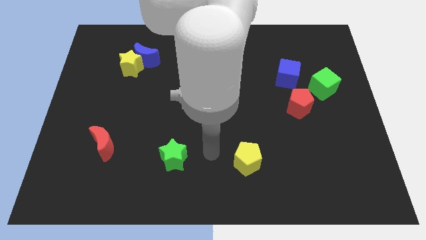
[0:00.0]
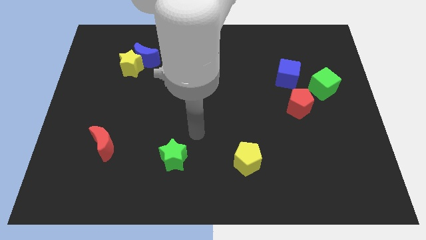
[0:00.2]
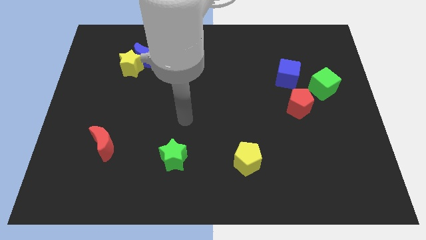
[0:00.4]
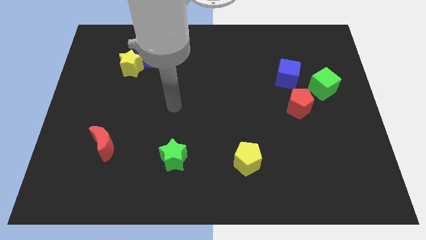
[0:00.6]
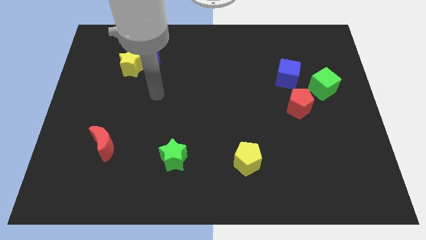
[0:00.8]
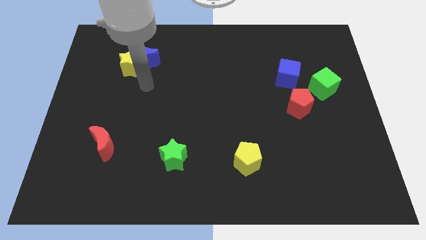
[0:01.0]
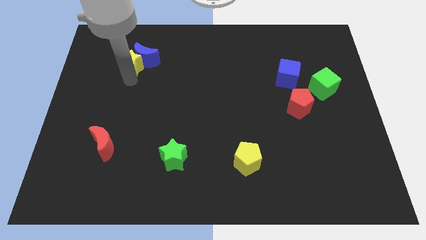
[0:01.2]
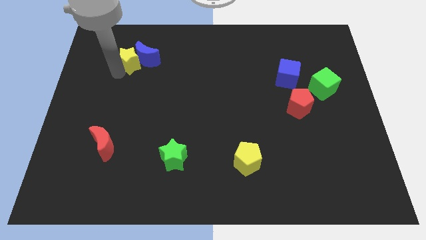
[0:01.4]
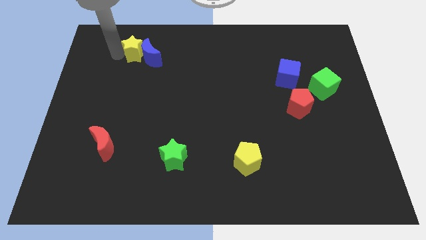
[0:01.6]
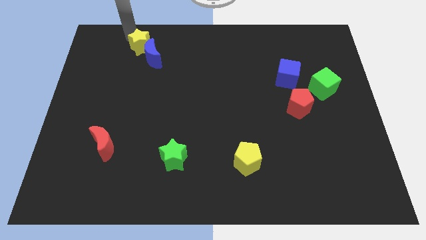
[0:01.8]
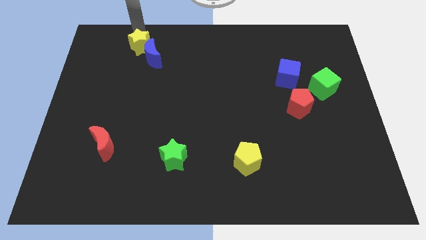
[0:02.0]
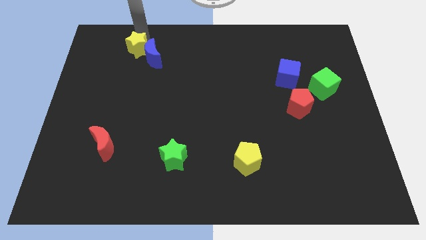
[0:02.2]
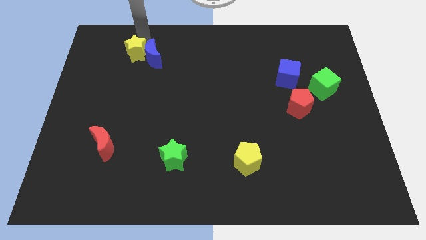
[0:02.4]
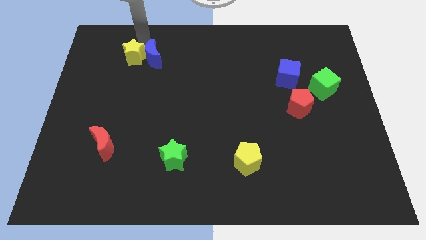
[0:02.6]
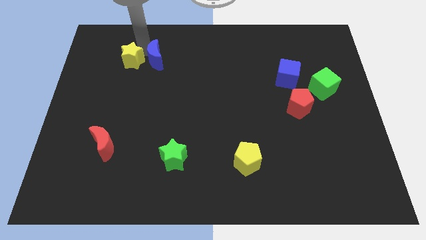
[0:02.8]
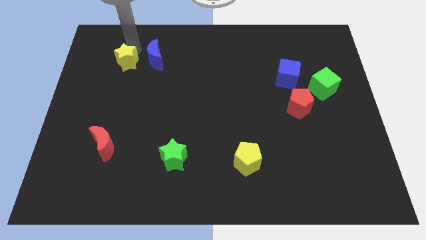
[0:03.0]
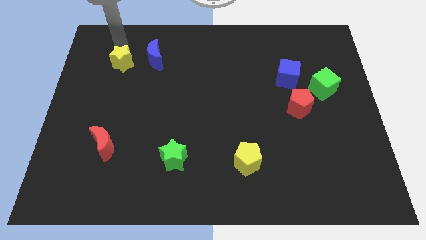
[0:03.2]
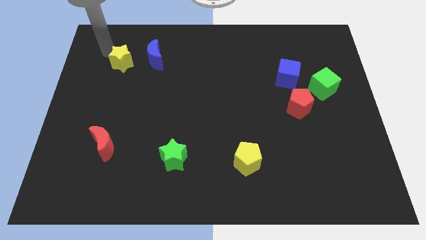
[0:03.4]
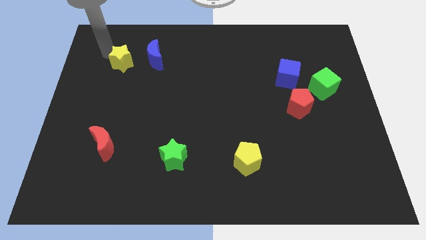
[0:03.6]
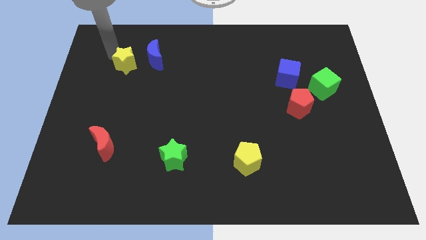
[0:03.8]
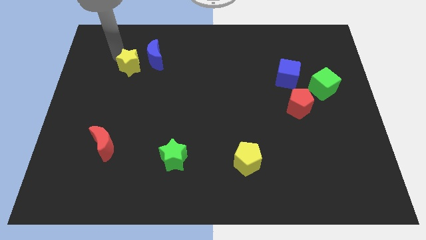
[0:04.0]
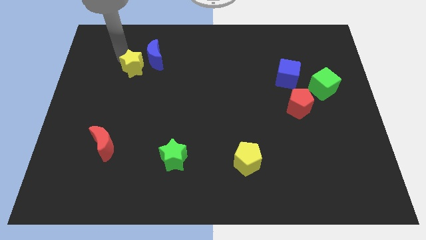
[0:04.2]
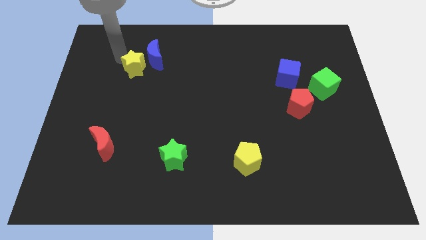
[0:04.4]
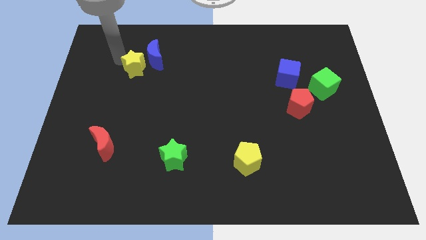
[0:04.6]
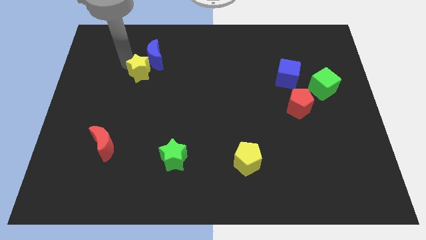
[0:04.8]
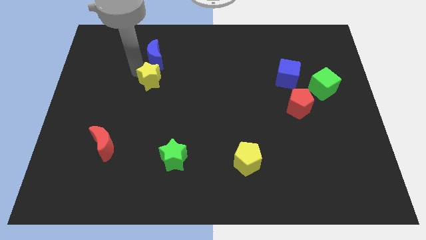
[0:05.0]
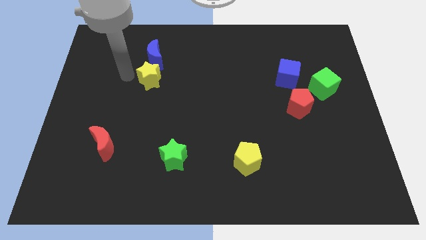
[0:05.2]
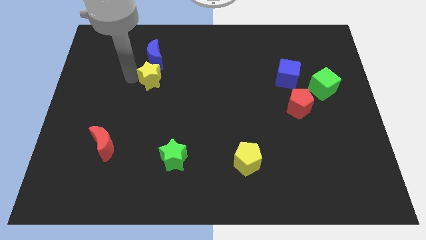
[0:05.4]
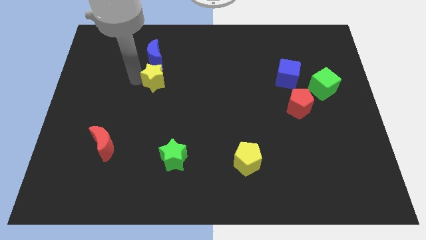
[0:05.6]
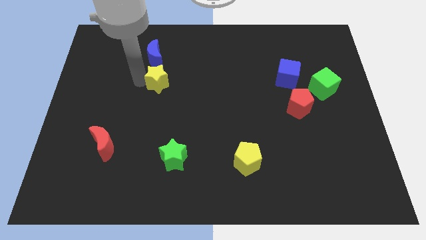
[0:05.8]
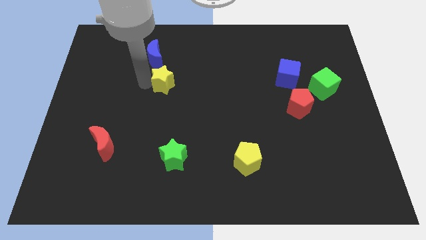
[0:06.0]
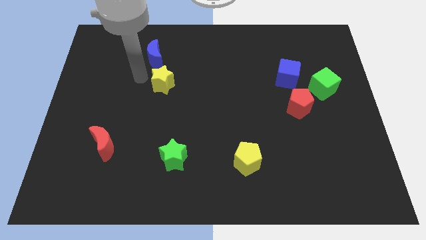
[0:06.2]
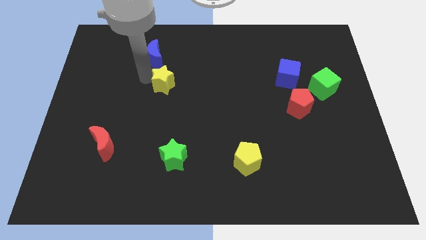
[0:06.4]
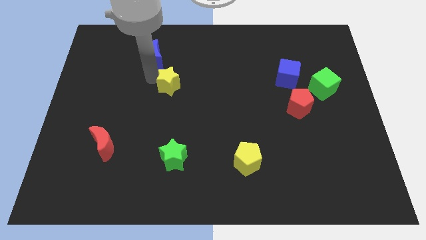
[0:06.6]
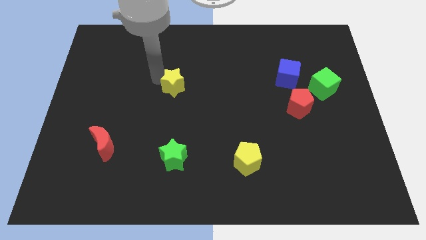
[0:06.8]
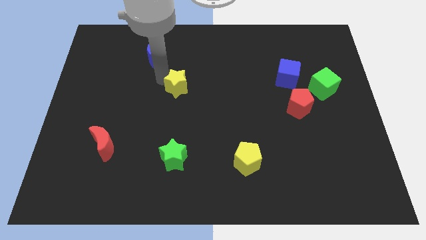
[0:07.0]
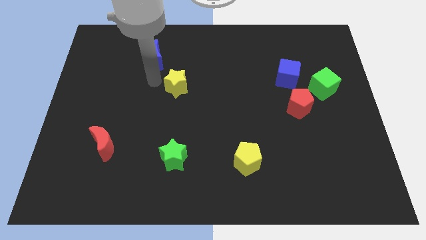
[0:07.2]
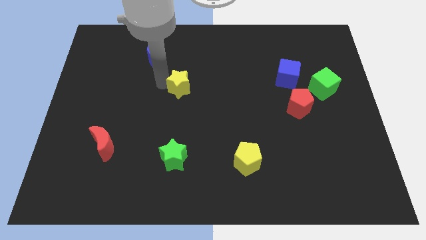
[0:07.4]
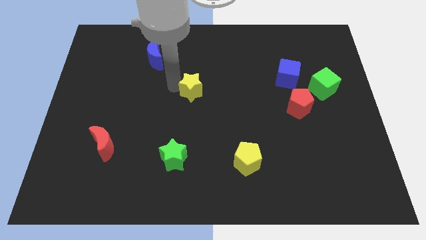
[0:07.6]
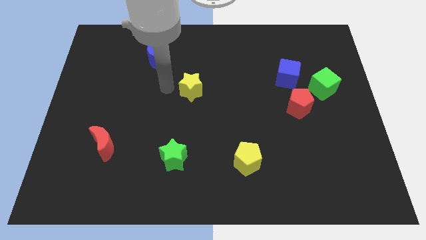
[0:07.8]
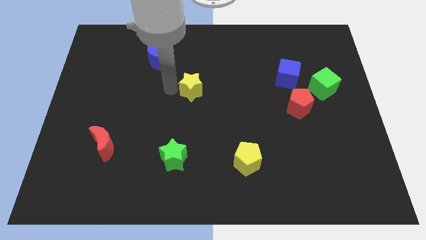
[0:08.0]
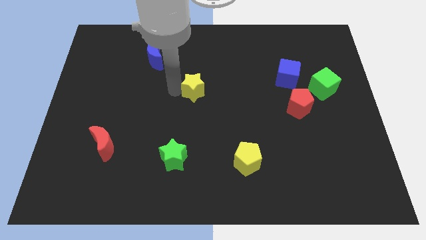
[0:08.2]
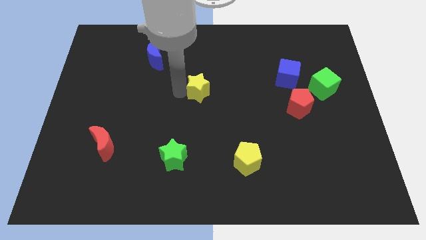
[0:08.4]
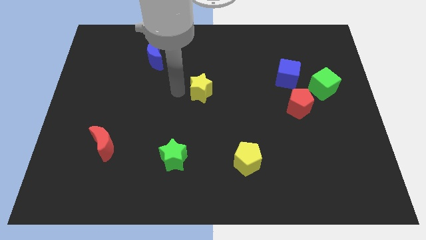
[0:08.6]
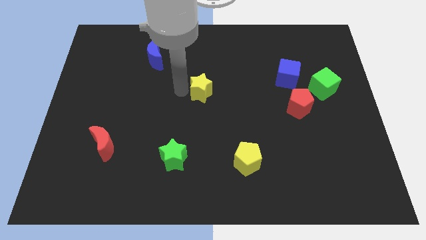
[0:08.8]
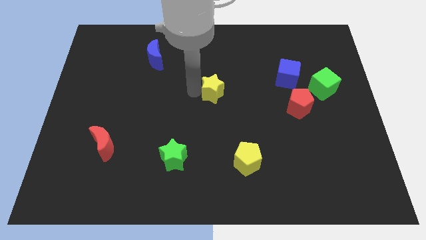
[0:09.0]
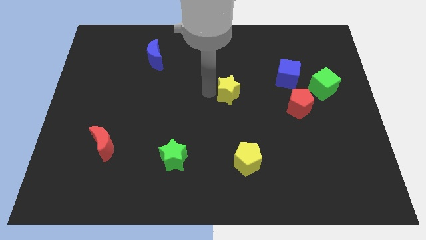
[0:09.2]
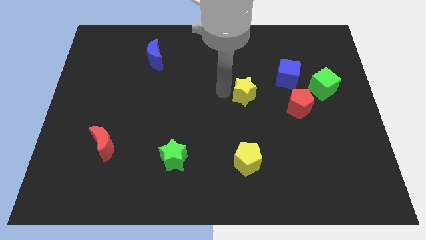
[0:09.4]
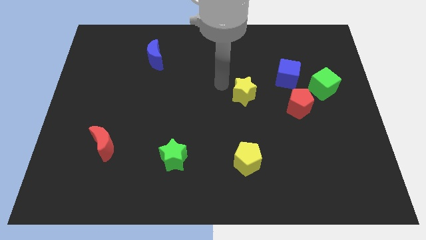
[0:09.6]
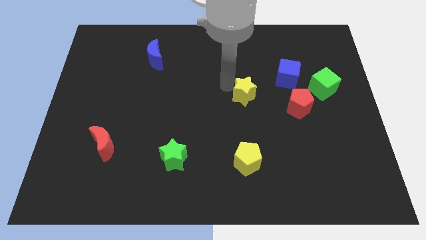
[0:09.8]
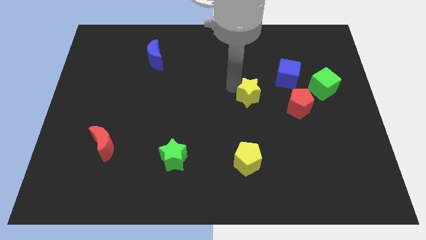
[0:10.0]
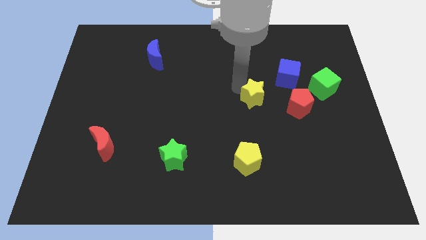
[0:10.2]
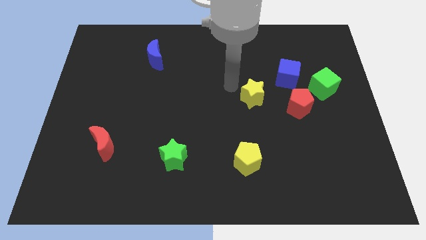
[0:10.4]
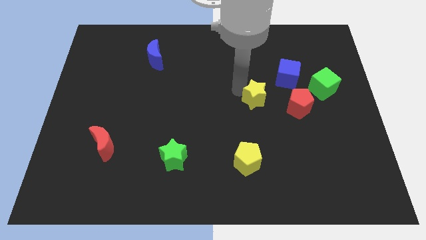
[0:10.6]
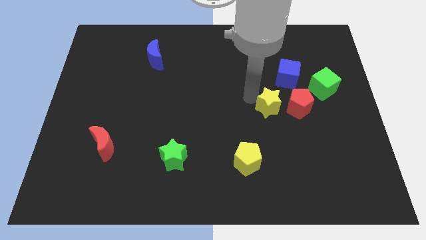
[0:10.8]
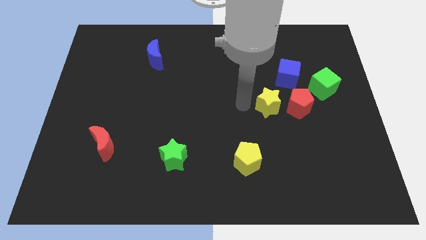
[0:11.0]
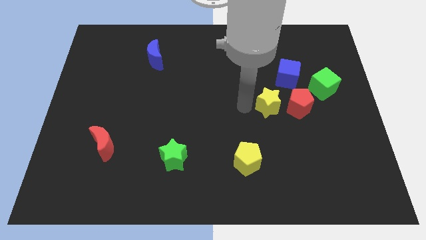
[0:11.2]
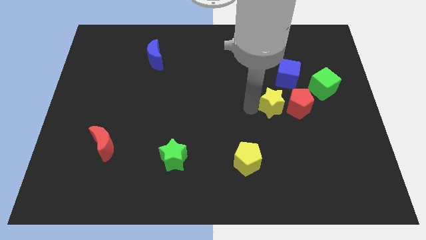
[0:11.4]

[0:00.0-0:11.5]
slide the yellow star to the red pentagon

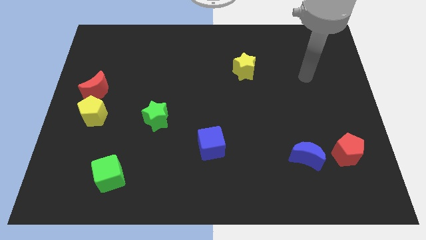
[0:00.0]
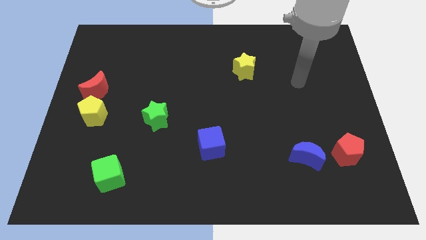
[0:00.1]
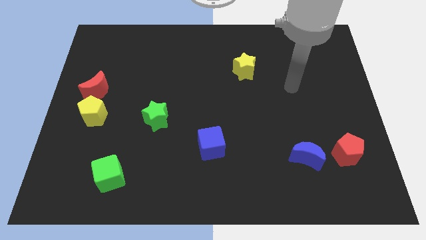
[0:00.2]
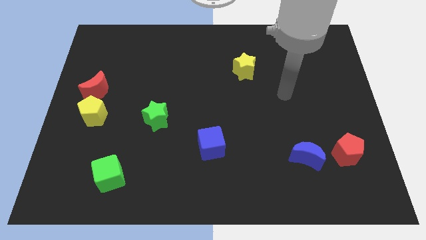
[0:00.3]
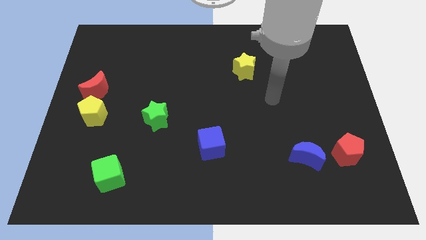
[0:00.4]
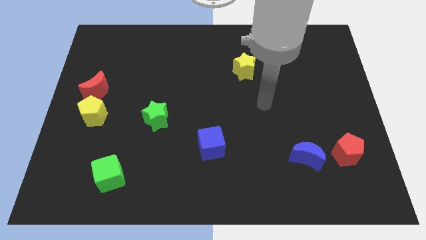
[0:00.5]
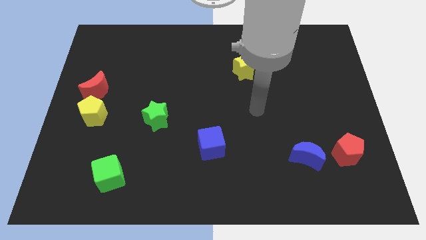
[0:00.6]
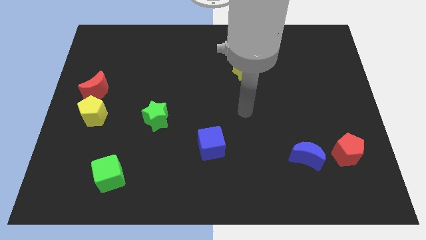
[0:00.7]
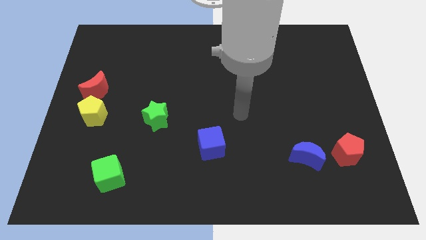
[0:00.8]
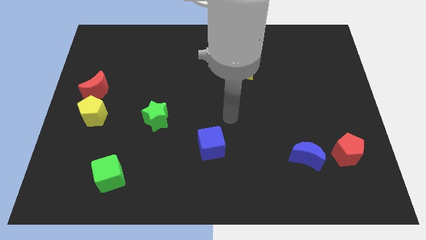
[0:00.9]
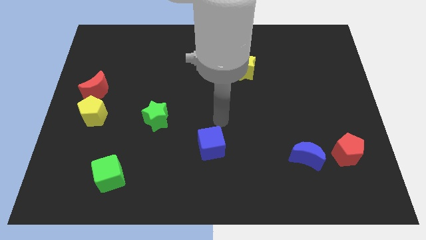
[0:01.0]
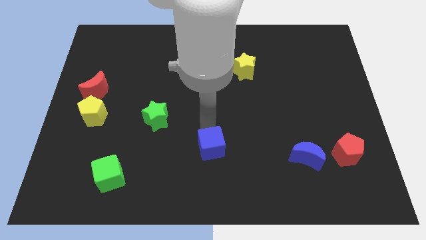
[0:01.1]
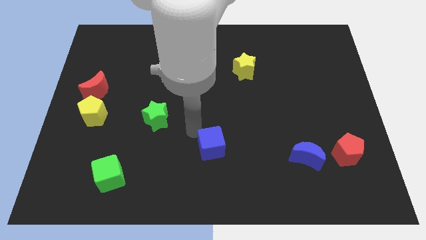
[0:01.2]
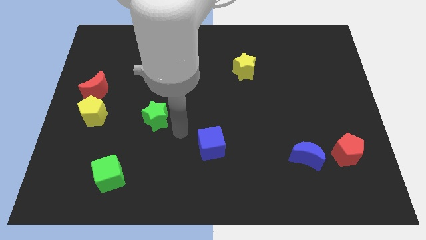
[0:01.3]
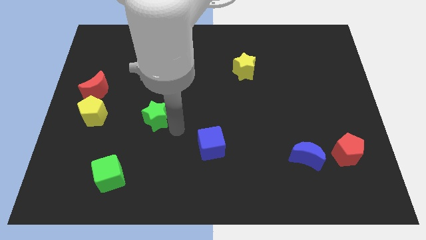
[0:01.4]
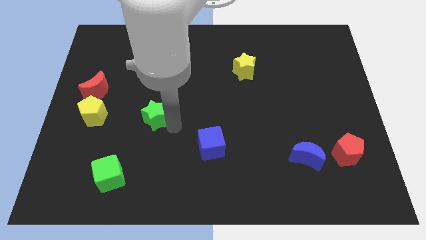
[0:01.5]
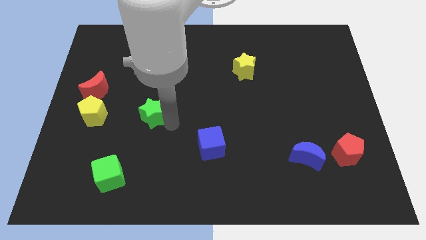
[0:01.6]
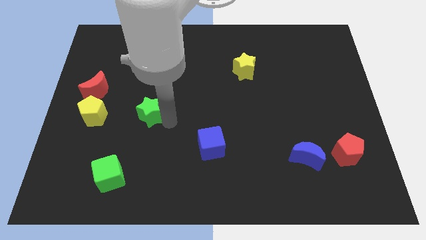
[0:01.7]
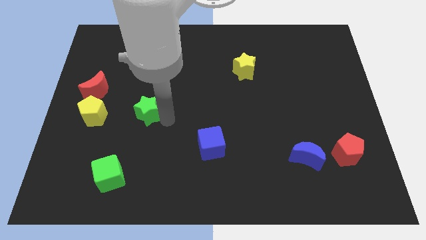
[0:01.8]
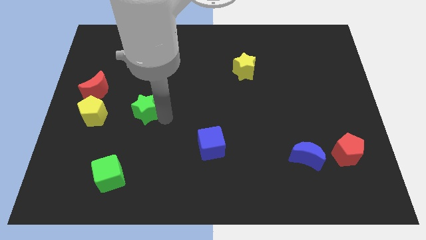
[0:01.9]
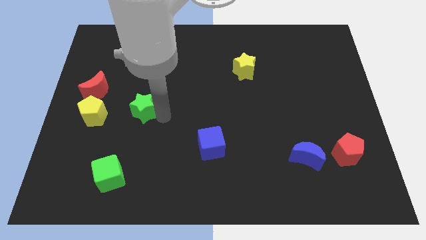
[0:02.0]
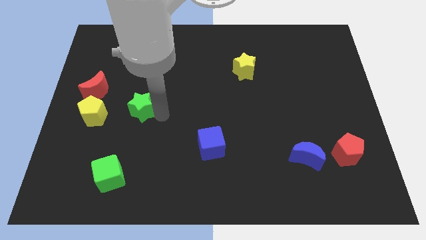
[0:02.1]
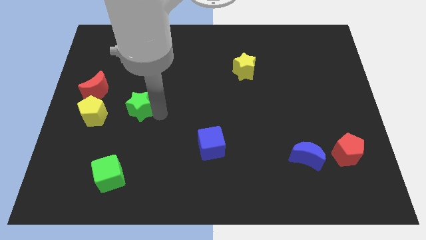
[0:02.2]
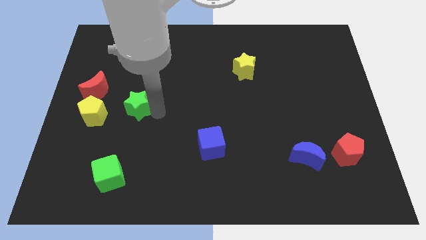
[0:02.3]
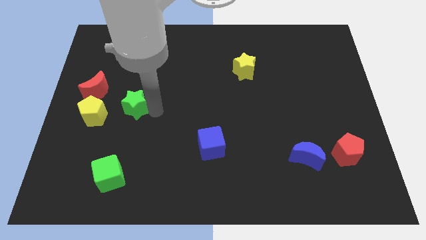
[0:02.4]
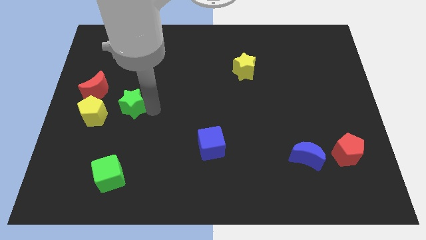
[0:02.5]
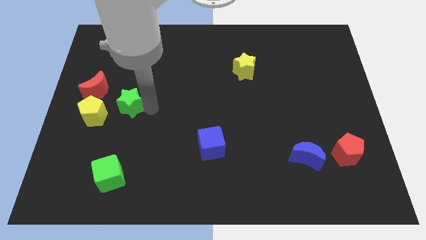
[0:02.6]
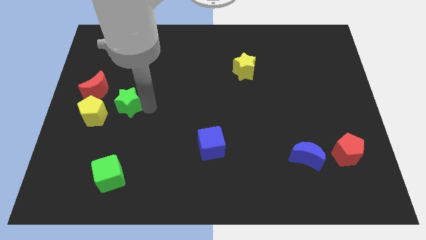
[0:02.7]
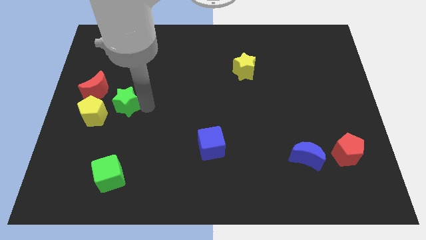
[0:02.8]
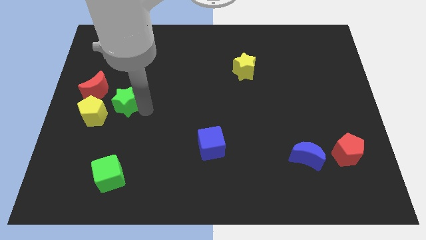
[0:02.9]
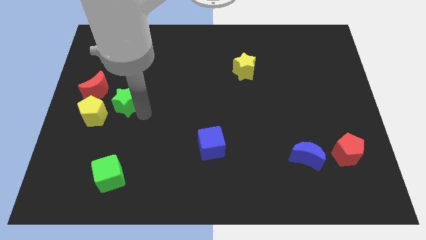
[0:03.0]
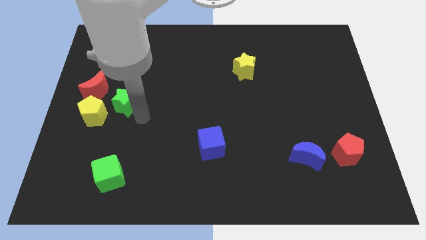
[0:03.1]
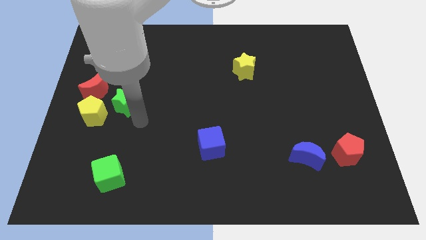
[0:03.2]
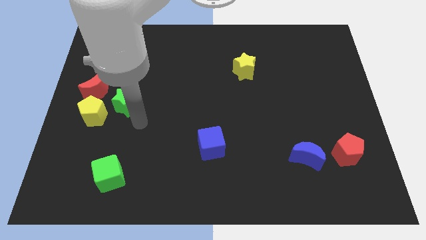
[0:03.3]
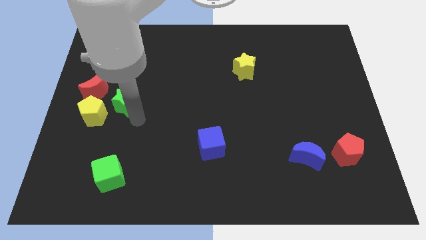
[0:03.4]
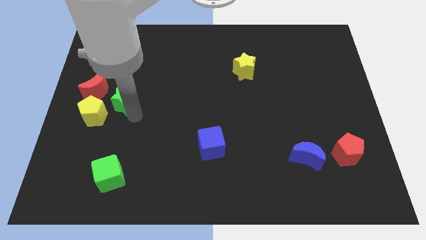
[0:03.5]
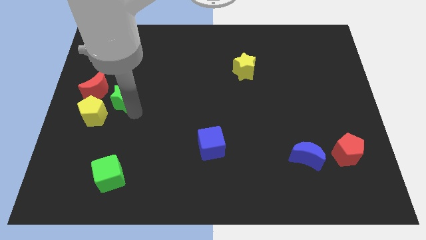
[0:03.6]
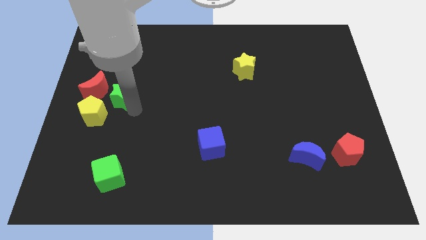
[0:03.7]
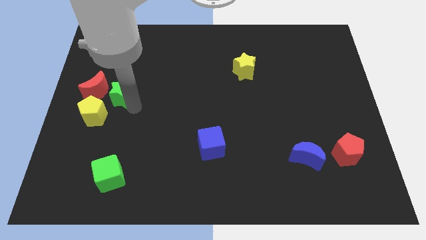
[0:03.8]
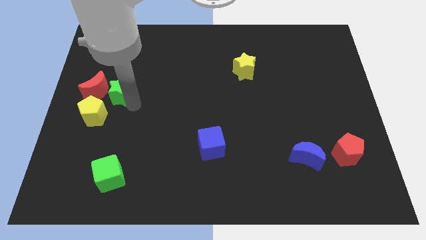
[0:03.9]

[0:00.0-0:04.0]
move the green star towards the red moon
